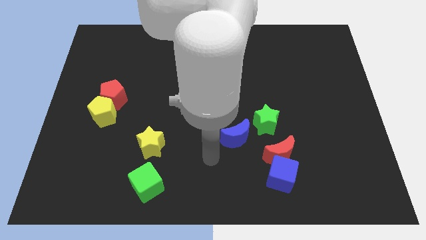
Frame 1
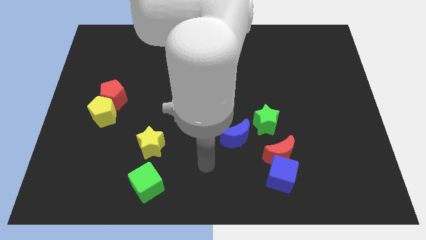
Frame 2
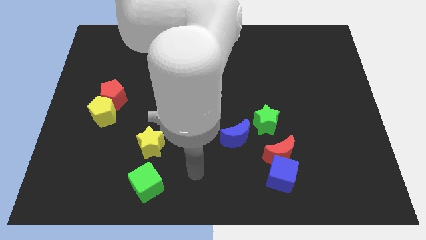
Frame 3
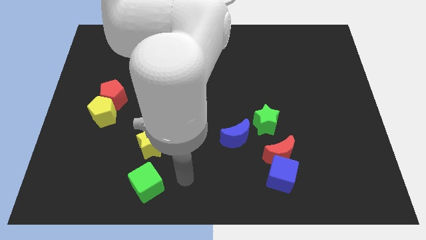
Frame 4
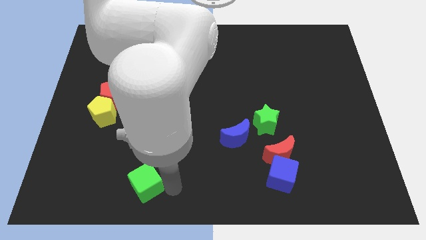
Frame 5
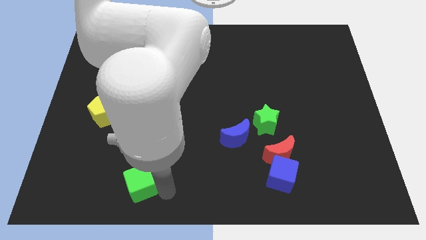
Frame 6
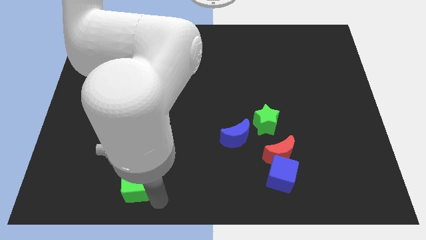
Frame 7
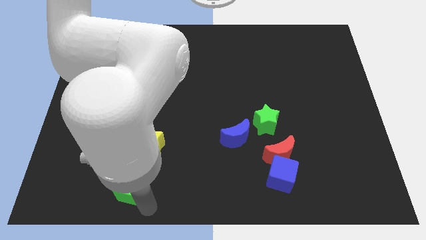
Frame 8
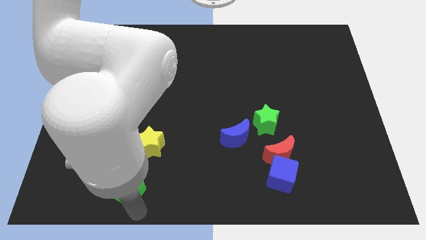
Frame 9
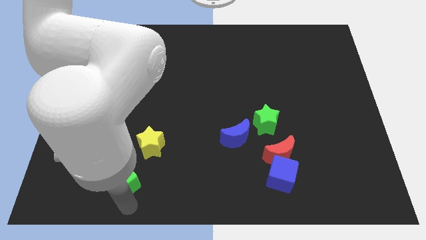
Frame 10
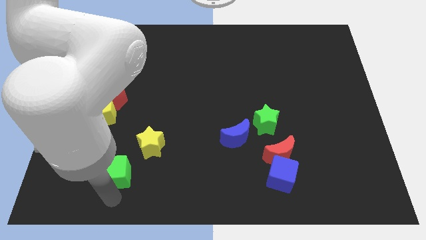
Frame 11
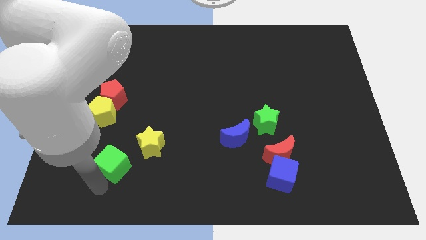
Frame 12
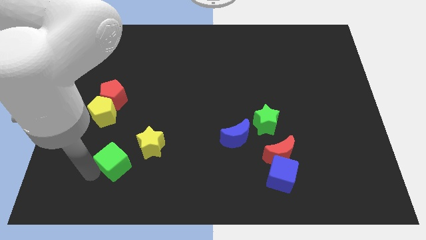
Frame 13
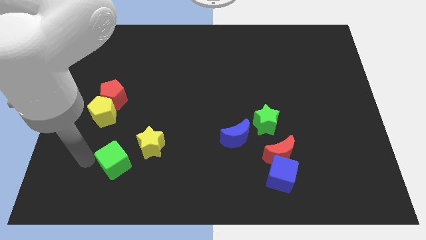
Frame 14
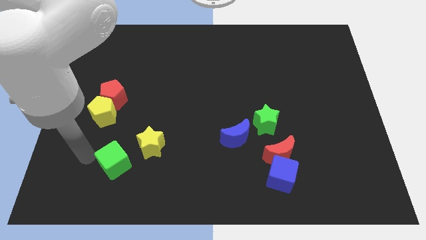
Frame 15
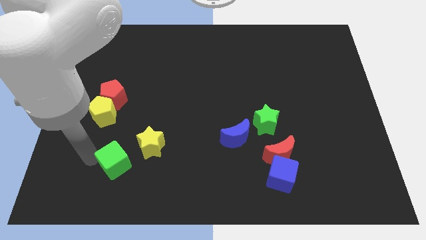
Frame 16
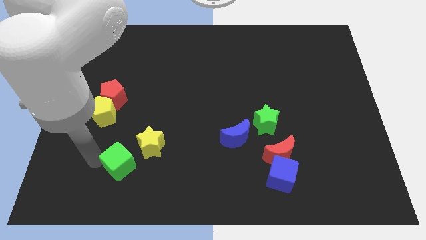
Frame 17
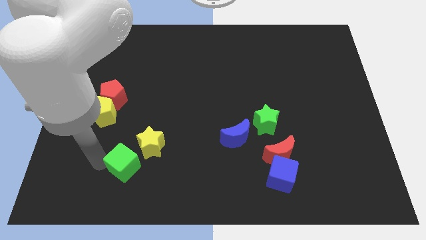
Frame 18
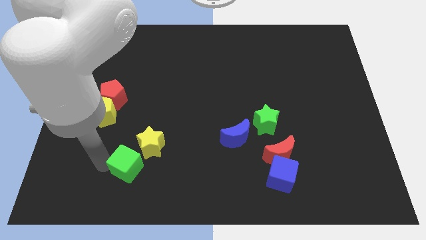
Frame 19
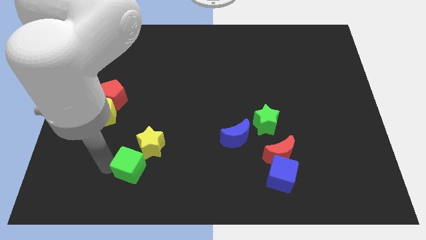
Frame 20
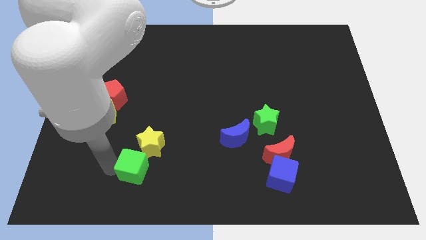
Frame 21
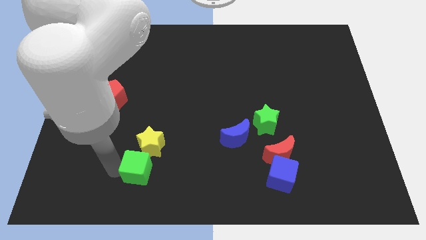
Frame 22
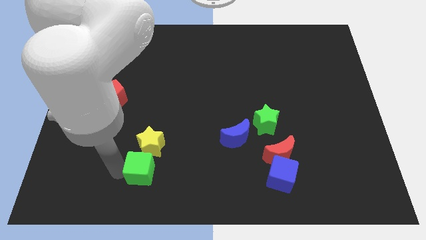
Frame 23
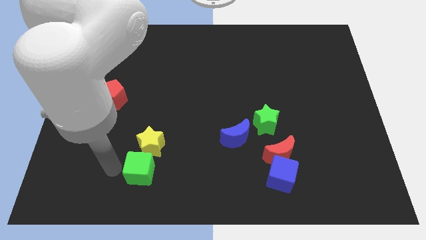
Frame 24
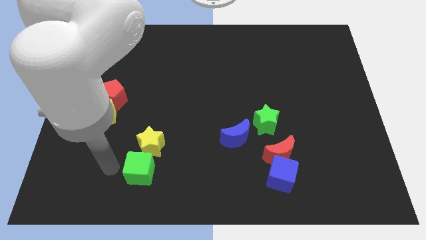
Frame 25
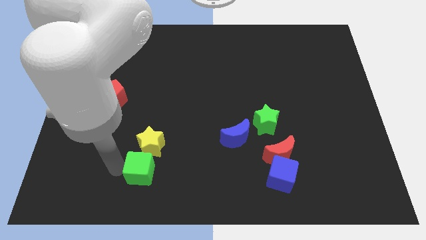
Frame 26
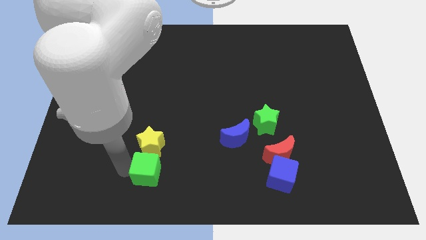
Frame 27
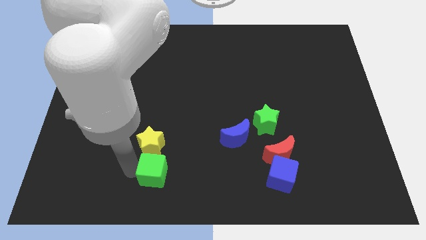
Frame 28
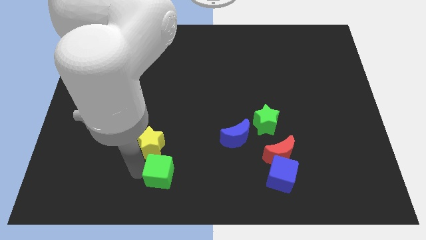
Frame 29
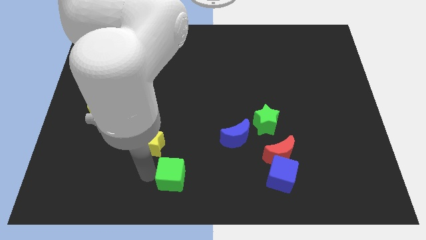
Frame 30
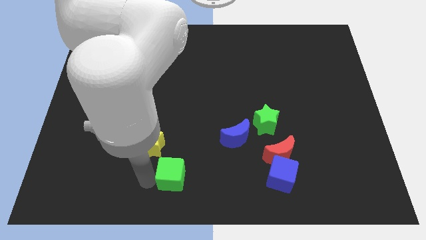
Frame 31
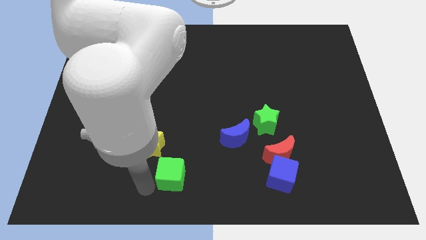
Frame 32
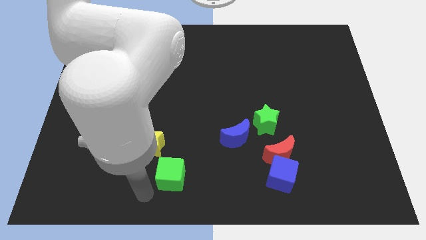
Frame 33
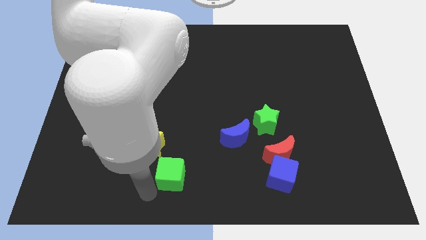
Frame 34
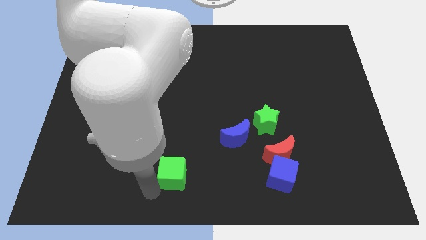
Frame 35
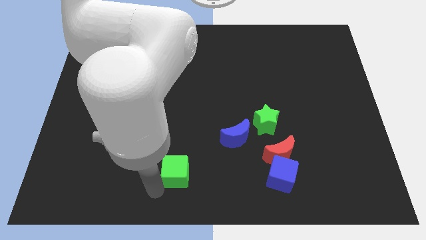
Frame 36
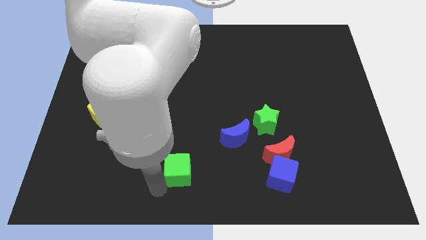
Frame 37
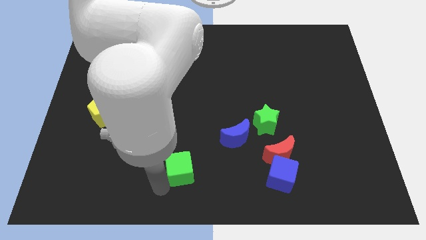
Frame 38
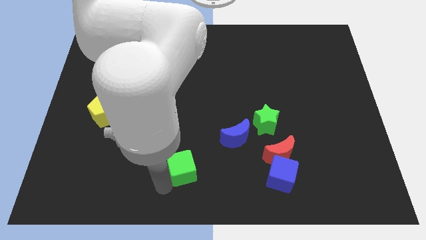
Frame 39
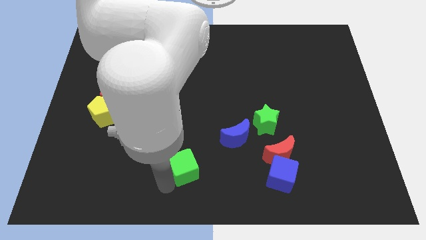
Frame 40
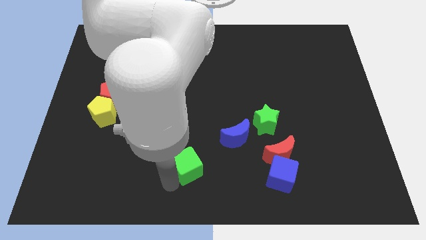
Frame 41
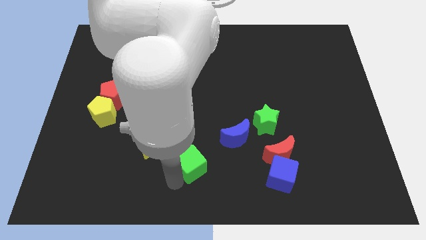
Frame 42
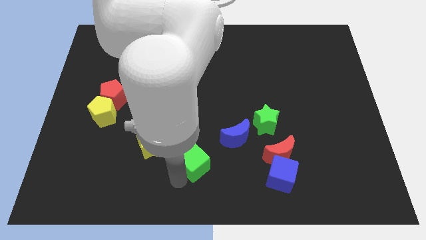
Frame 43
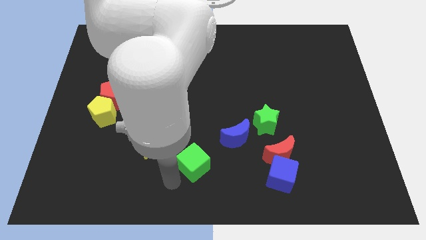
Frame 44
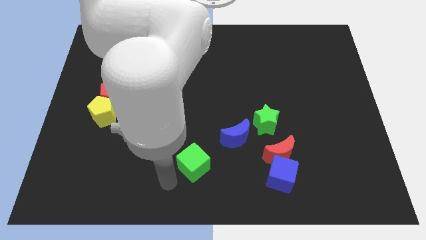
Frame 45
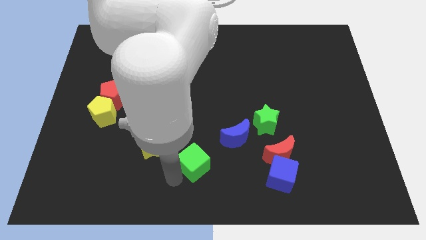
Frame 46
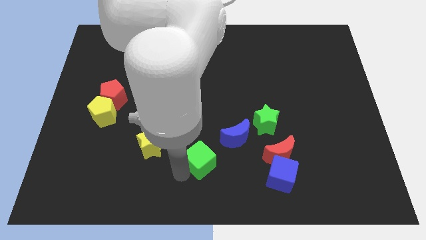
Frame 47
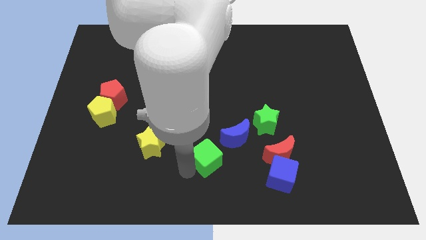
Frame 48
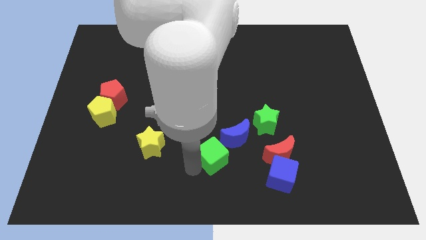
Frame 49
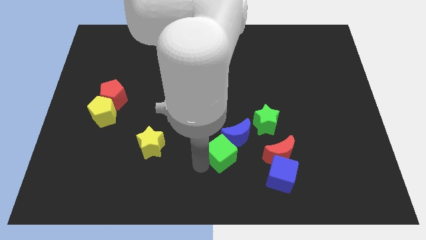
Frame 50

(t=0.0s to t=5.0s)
put the green cube next to the blue moon

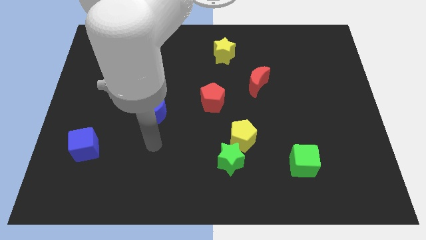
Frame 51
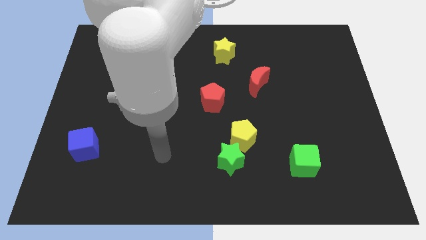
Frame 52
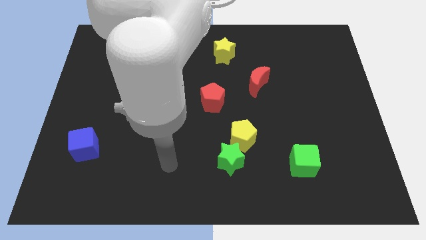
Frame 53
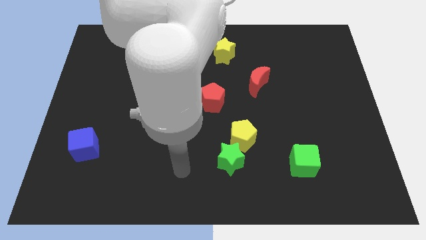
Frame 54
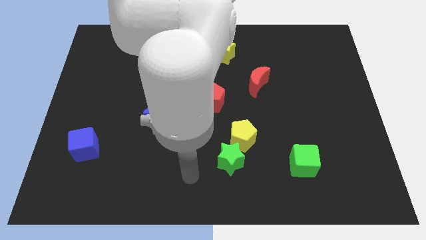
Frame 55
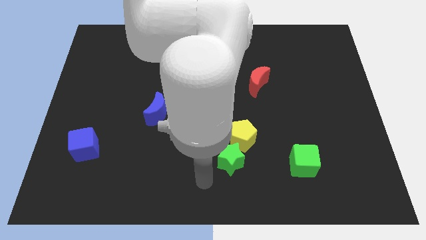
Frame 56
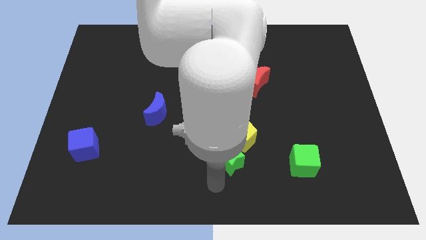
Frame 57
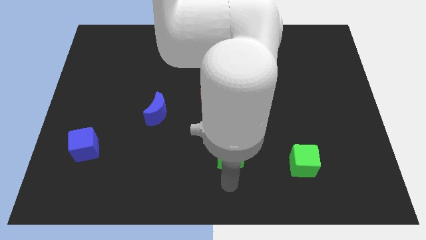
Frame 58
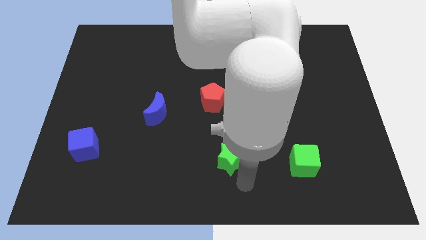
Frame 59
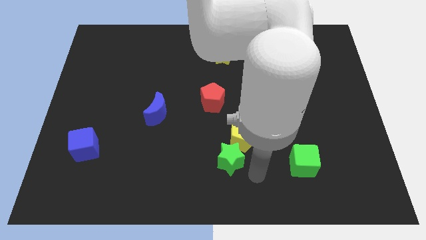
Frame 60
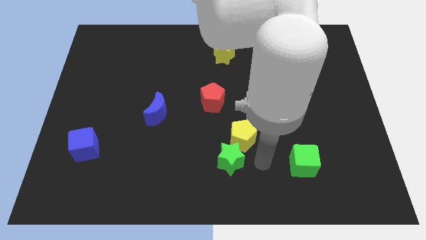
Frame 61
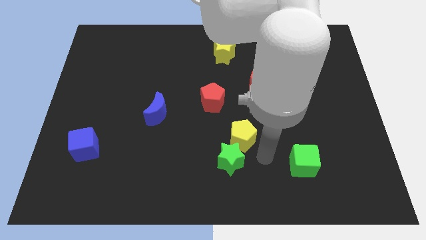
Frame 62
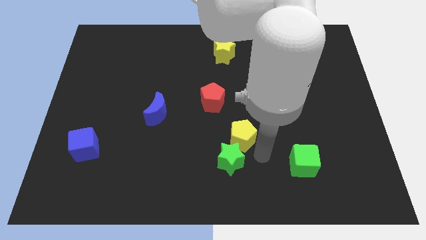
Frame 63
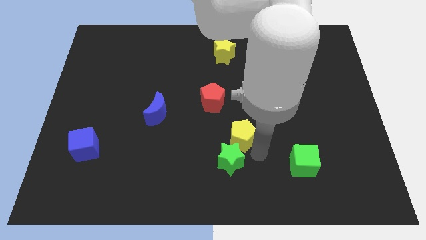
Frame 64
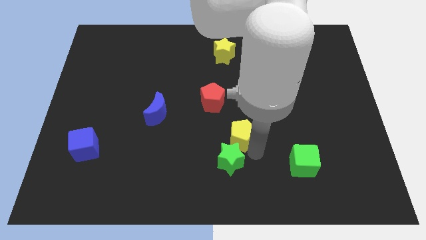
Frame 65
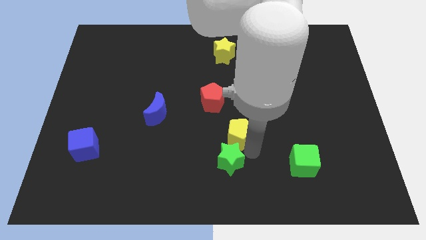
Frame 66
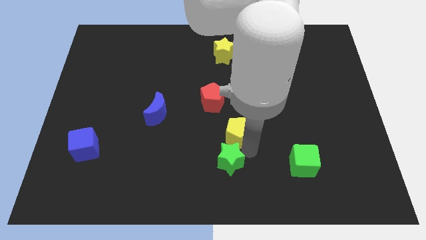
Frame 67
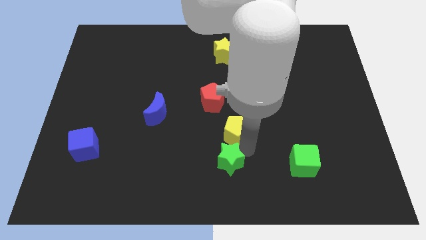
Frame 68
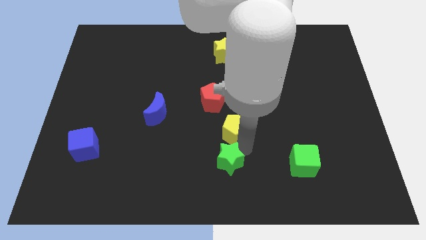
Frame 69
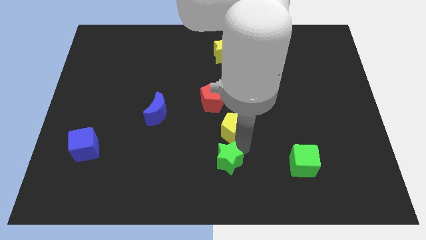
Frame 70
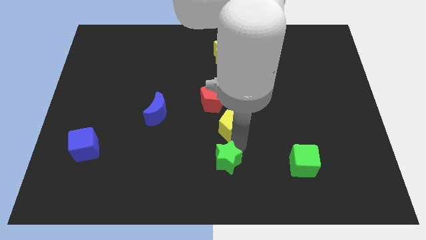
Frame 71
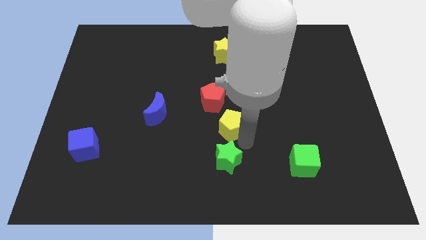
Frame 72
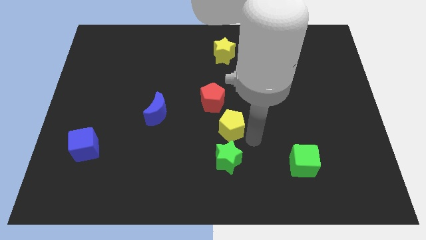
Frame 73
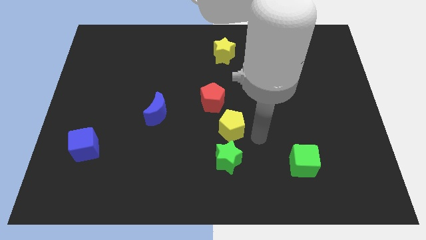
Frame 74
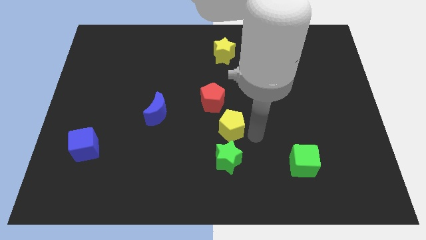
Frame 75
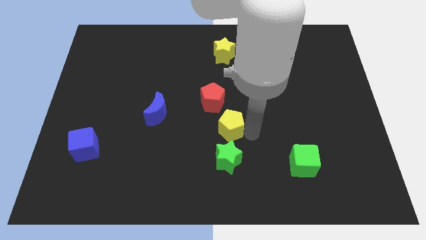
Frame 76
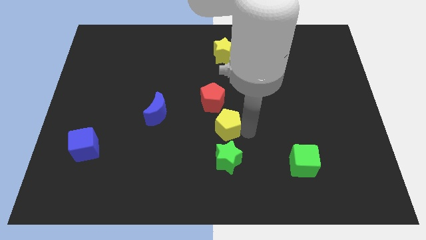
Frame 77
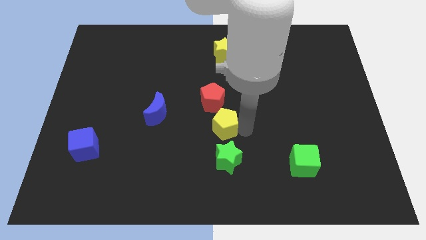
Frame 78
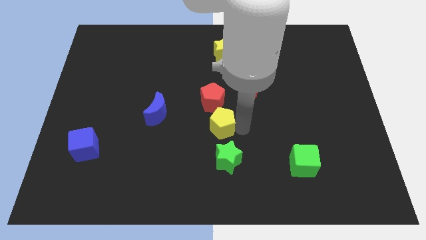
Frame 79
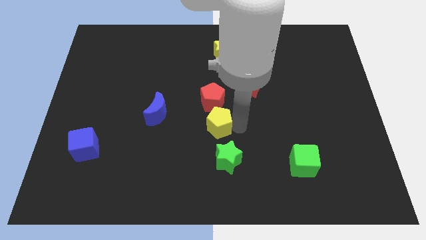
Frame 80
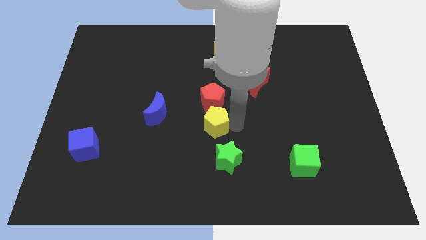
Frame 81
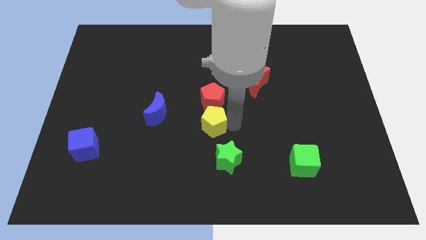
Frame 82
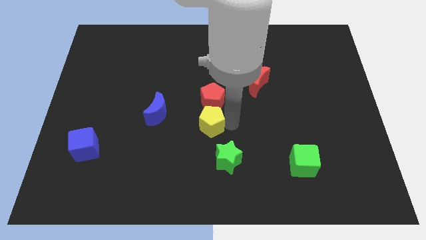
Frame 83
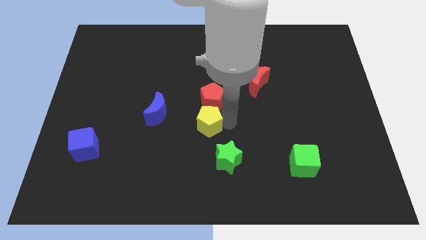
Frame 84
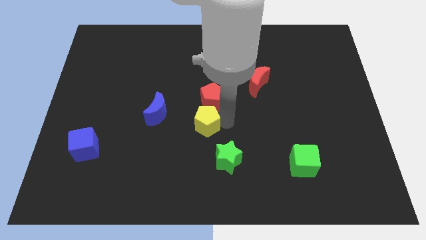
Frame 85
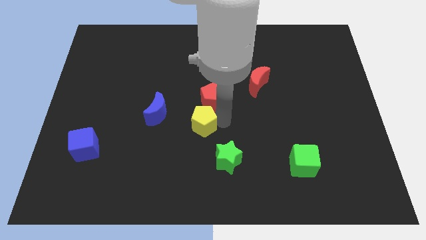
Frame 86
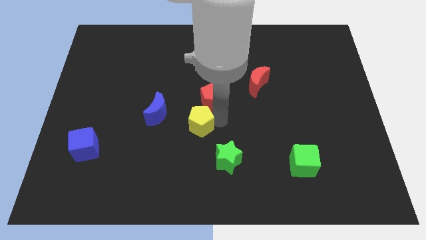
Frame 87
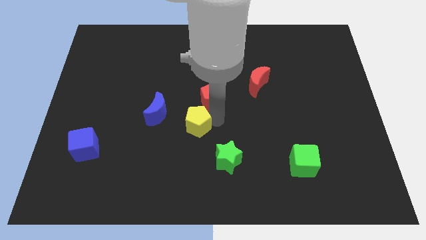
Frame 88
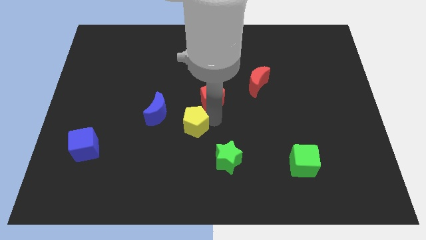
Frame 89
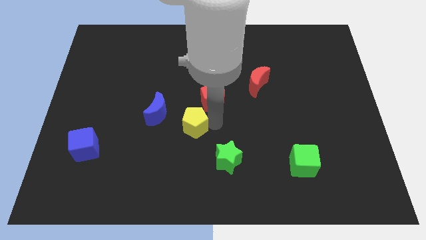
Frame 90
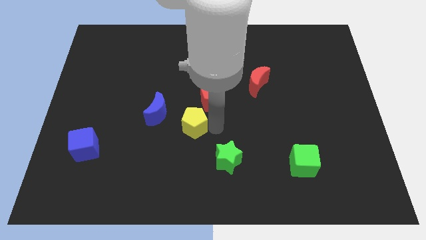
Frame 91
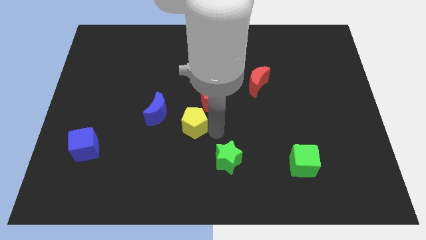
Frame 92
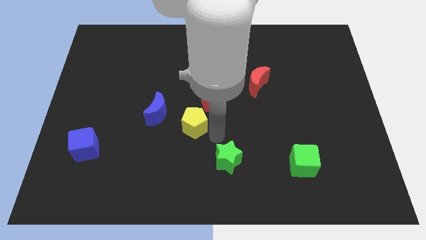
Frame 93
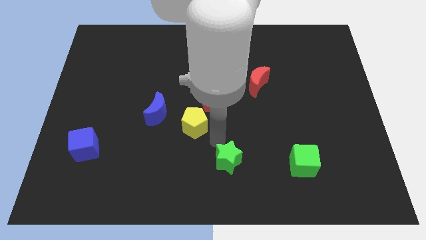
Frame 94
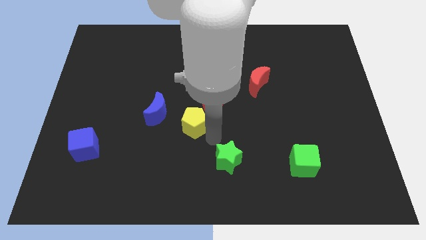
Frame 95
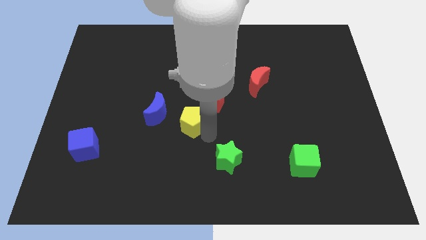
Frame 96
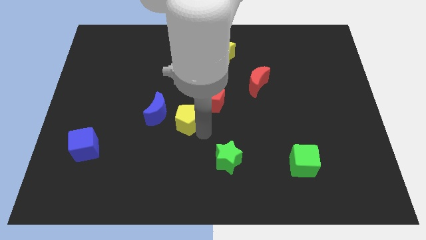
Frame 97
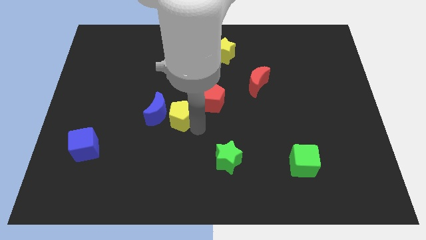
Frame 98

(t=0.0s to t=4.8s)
push the yellow pentagon next to the blue moon
